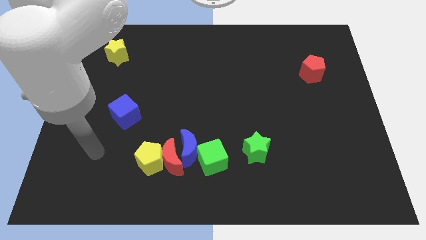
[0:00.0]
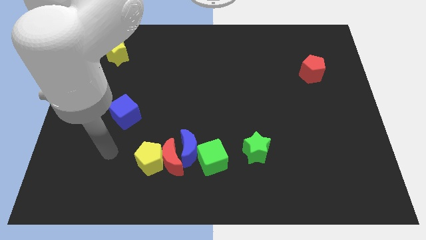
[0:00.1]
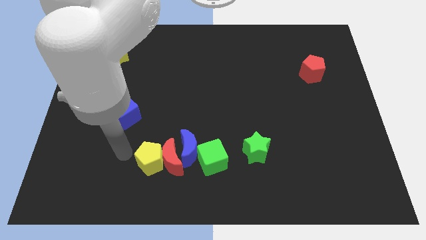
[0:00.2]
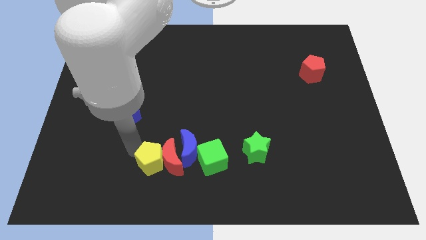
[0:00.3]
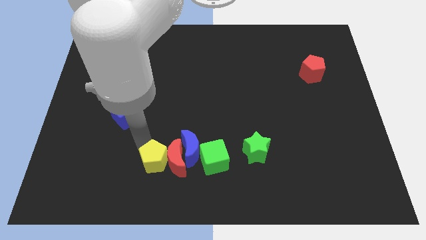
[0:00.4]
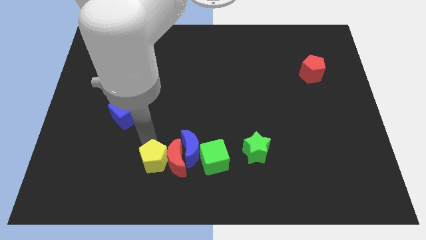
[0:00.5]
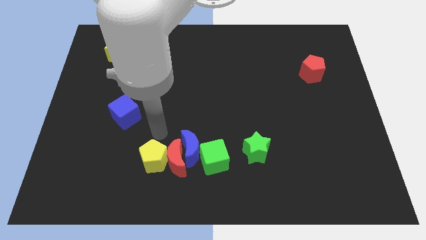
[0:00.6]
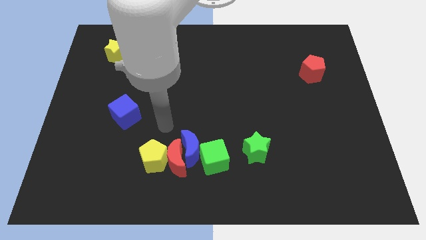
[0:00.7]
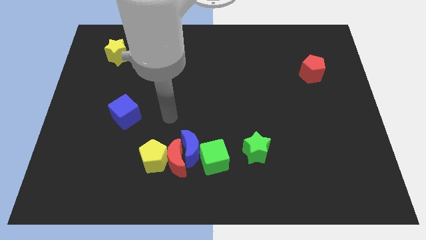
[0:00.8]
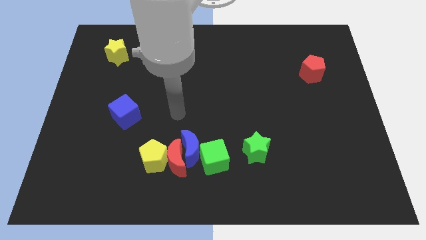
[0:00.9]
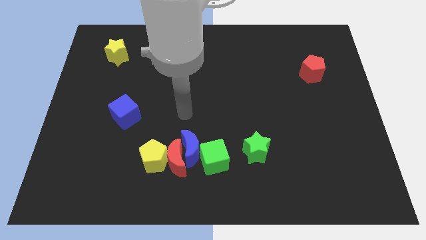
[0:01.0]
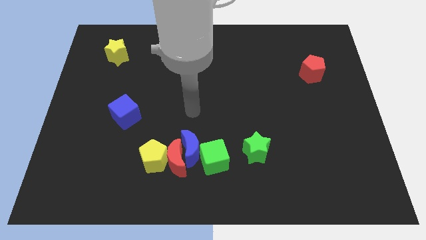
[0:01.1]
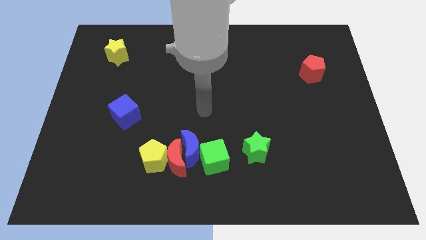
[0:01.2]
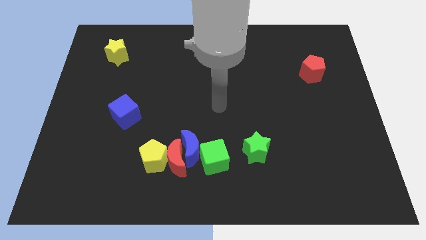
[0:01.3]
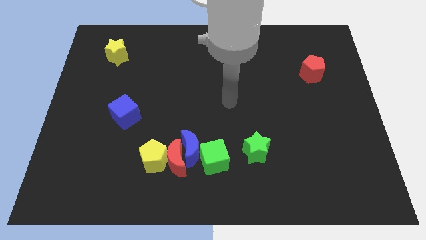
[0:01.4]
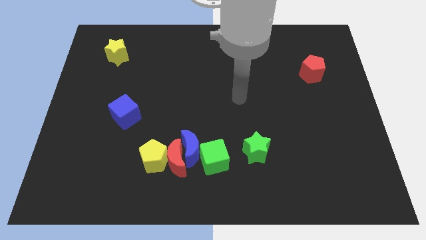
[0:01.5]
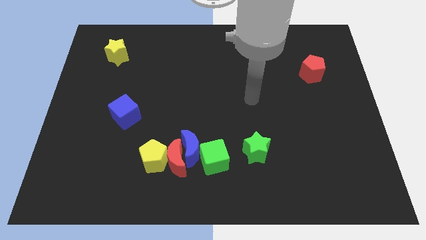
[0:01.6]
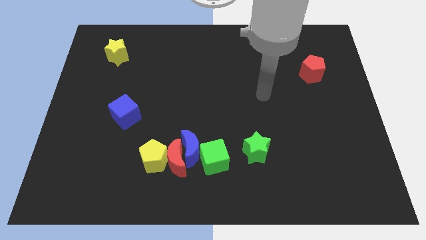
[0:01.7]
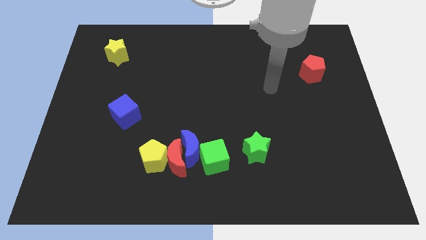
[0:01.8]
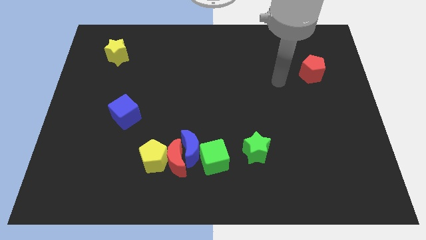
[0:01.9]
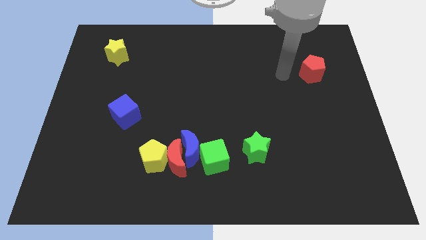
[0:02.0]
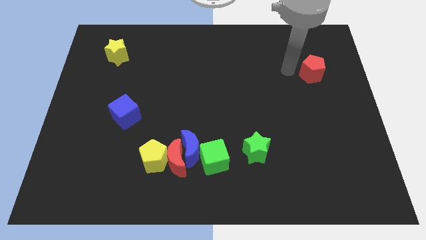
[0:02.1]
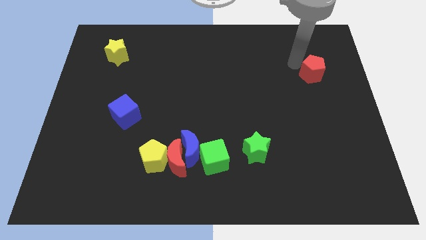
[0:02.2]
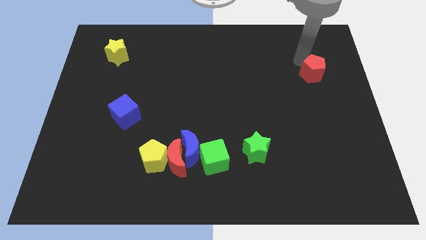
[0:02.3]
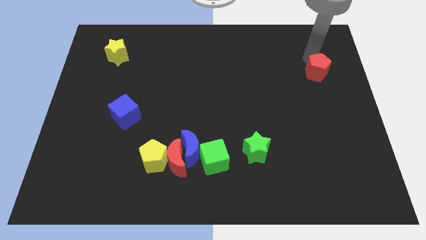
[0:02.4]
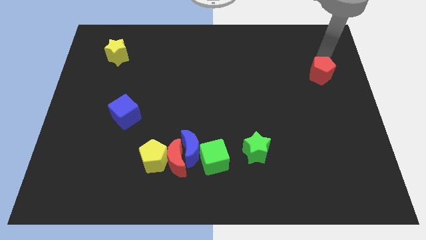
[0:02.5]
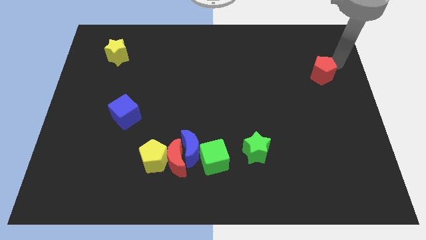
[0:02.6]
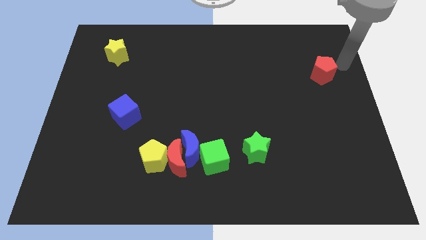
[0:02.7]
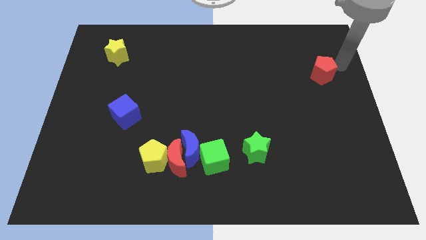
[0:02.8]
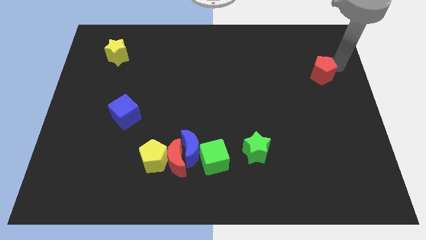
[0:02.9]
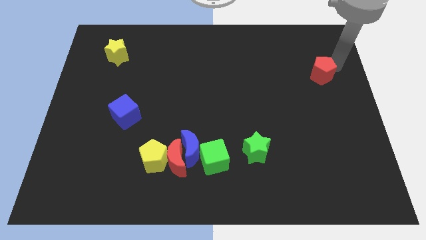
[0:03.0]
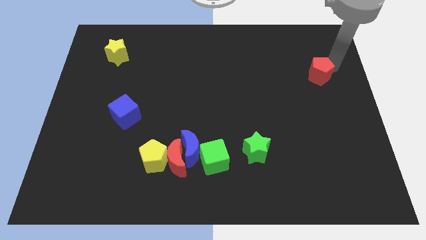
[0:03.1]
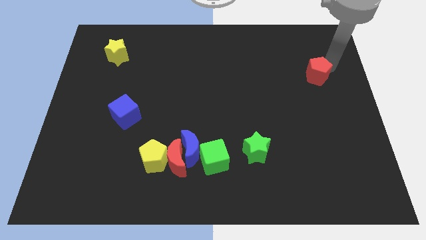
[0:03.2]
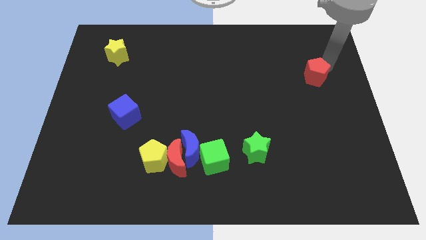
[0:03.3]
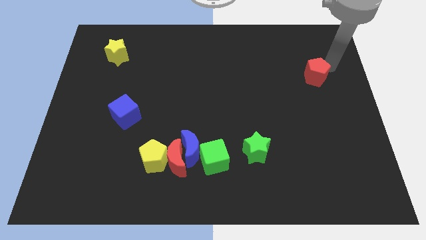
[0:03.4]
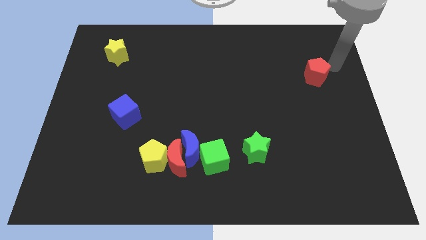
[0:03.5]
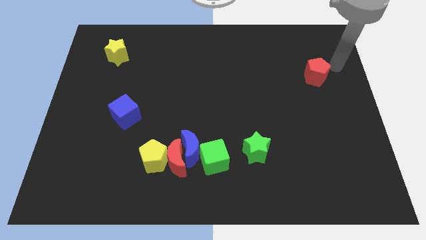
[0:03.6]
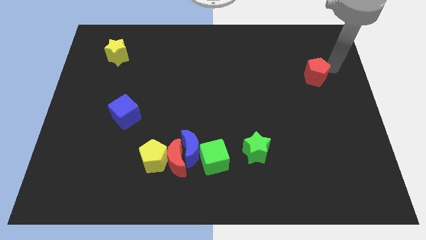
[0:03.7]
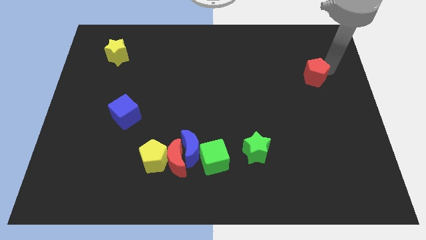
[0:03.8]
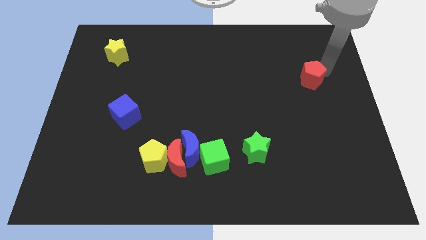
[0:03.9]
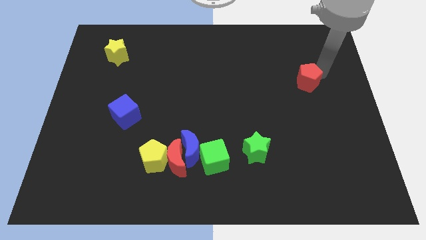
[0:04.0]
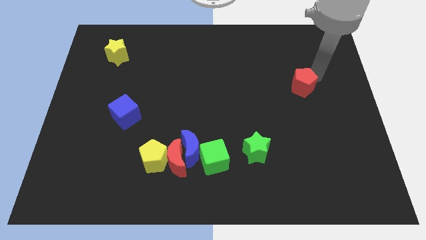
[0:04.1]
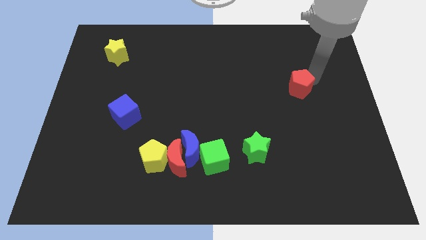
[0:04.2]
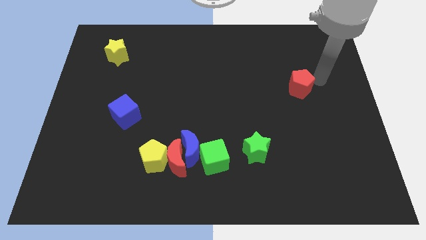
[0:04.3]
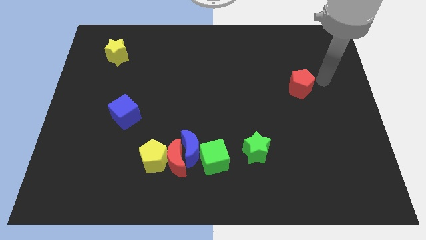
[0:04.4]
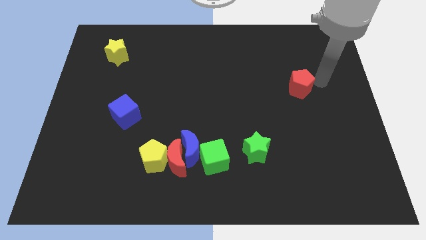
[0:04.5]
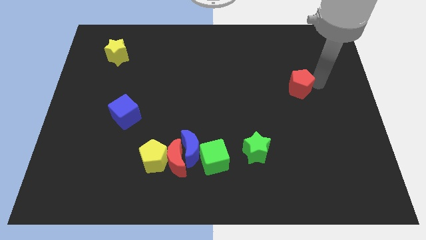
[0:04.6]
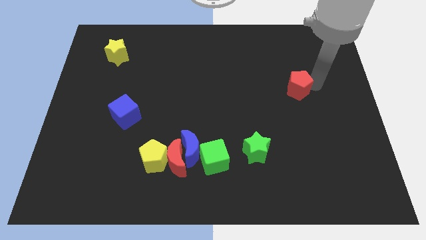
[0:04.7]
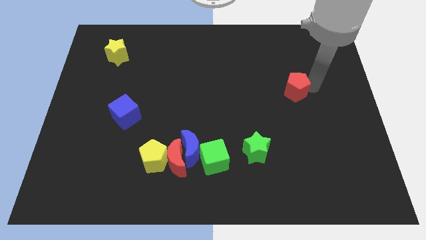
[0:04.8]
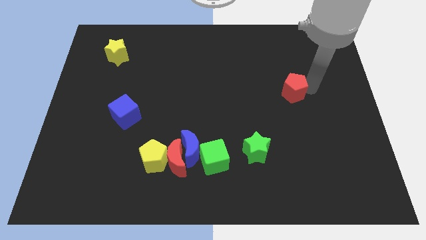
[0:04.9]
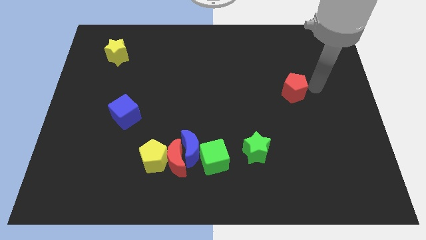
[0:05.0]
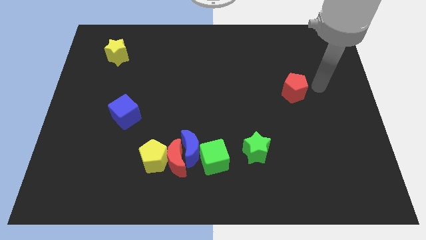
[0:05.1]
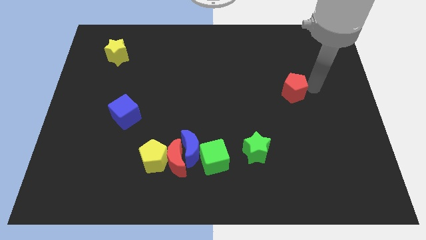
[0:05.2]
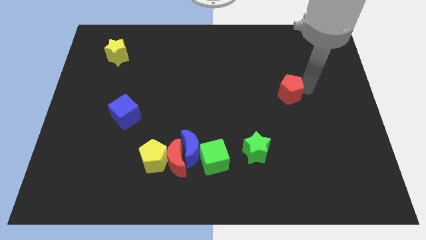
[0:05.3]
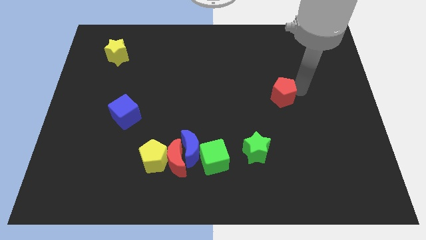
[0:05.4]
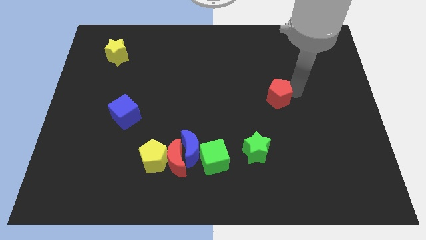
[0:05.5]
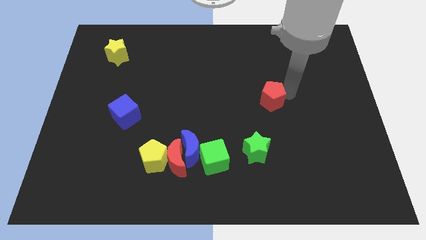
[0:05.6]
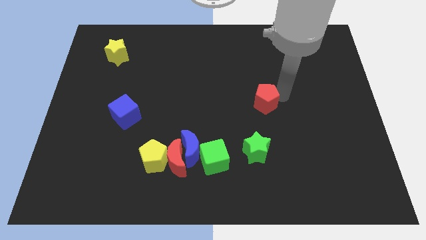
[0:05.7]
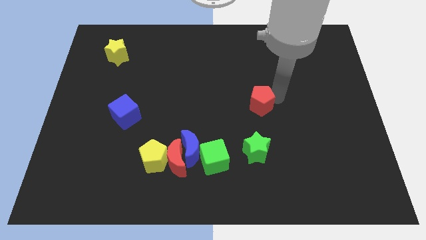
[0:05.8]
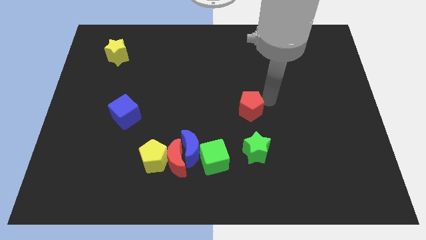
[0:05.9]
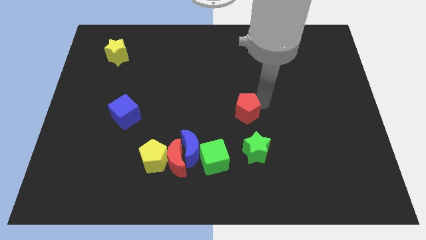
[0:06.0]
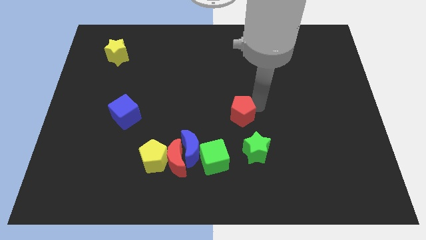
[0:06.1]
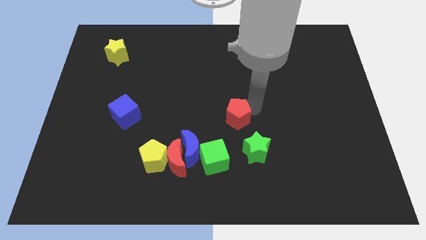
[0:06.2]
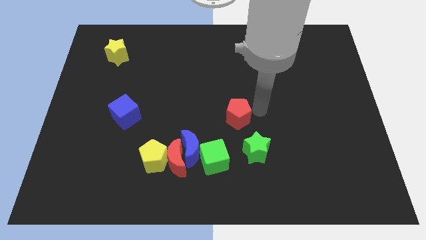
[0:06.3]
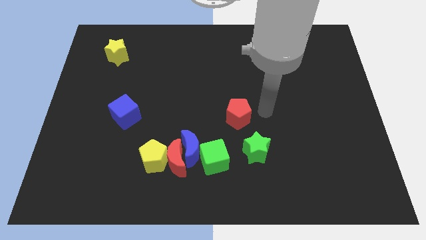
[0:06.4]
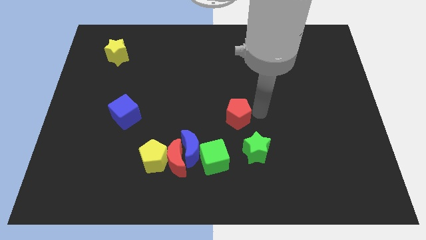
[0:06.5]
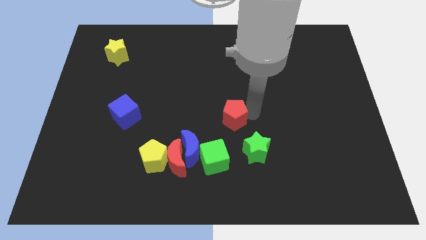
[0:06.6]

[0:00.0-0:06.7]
move the red pentagon to the top side of the green cube

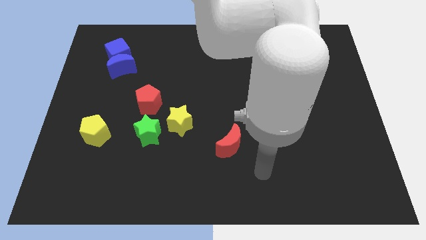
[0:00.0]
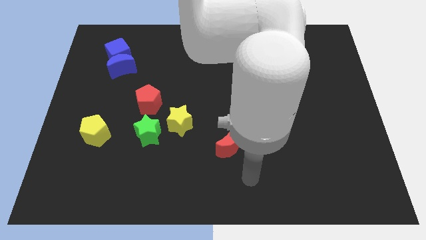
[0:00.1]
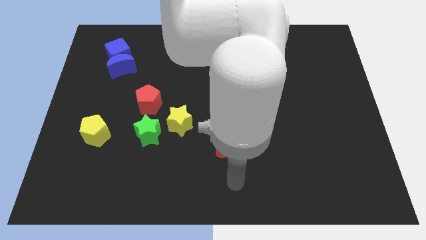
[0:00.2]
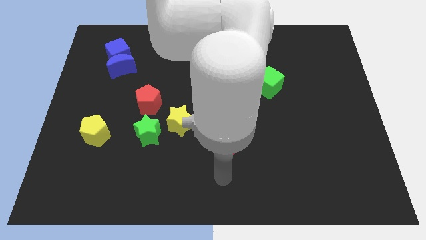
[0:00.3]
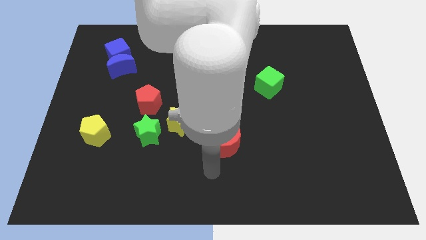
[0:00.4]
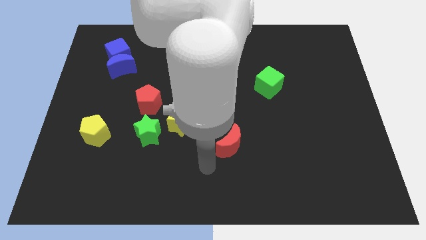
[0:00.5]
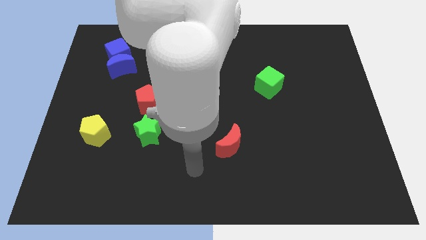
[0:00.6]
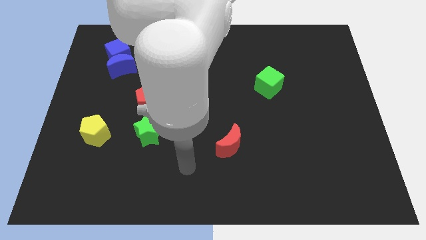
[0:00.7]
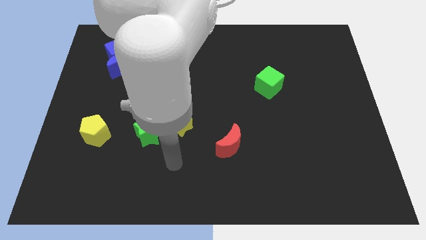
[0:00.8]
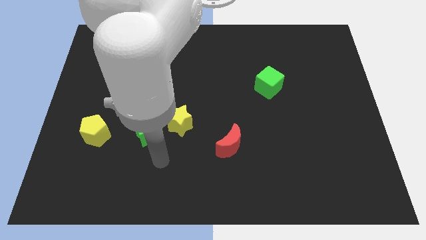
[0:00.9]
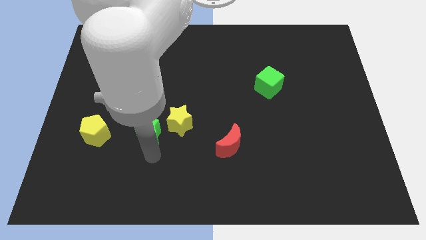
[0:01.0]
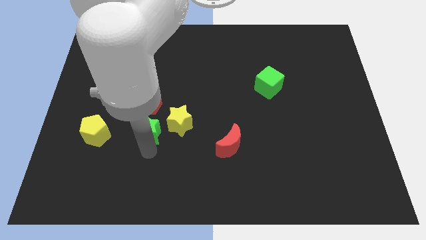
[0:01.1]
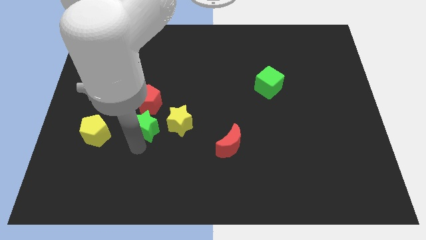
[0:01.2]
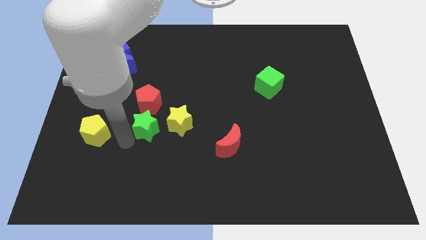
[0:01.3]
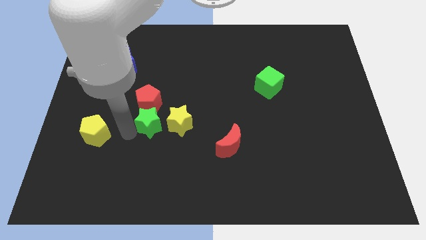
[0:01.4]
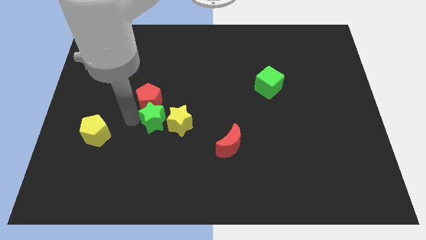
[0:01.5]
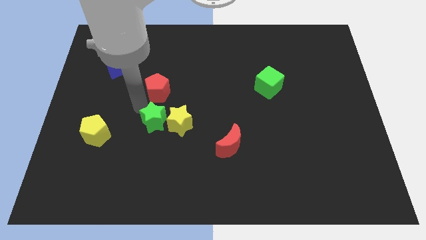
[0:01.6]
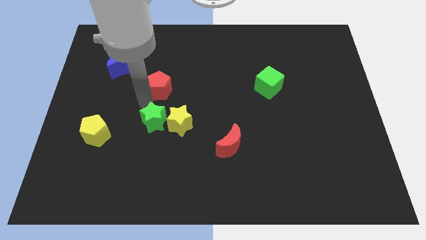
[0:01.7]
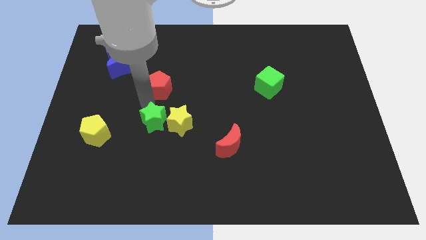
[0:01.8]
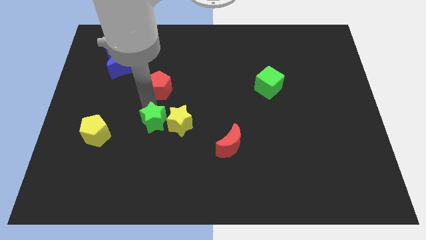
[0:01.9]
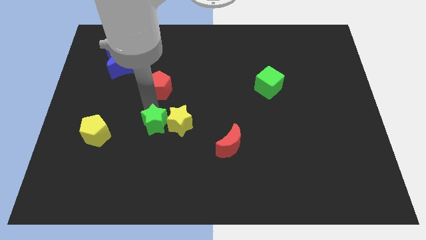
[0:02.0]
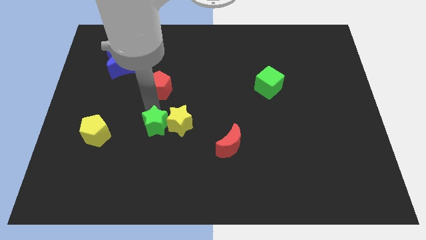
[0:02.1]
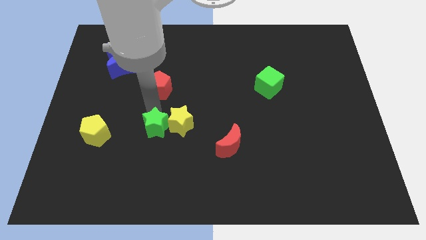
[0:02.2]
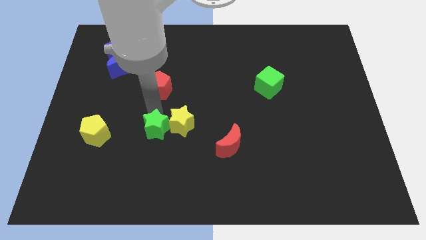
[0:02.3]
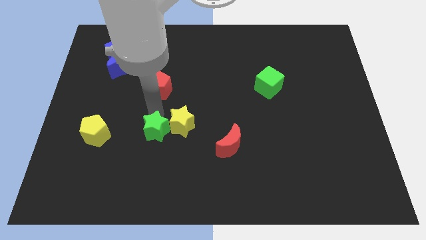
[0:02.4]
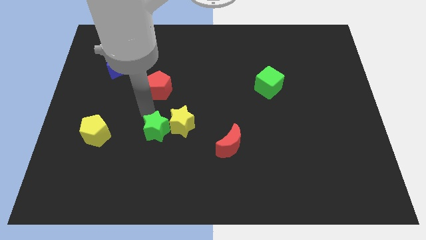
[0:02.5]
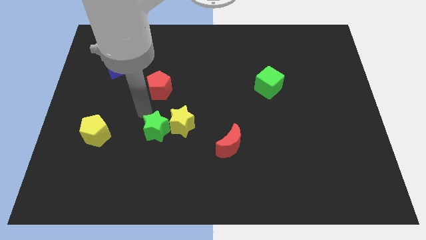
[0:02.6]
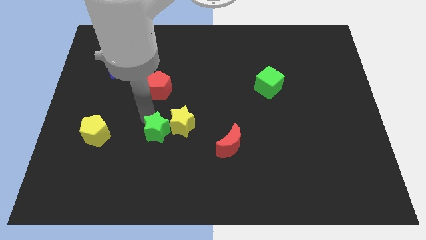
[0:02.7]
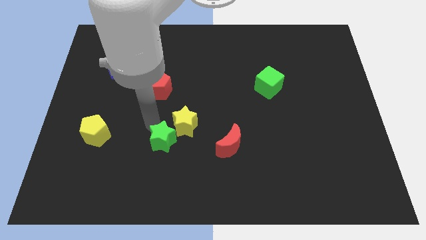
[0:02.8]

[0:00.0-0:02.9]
move the green star to the bottom of the yellow star
